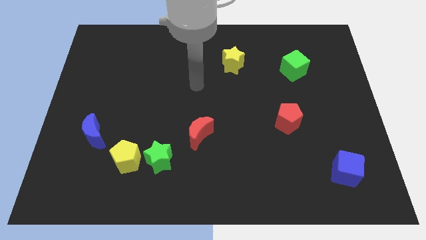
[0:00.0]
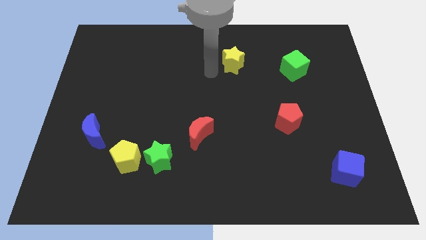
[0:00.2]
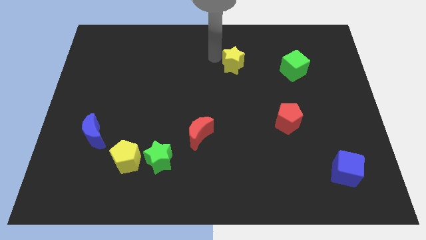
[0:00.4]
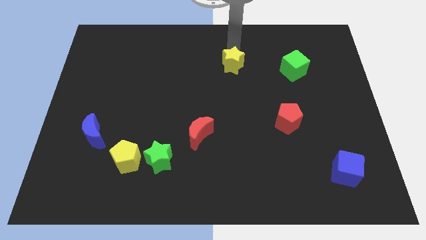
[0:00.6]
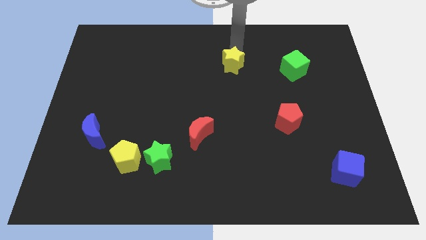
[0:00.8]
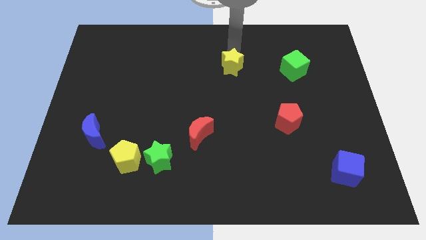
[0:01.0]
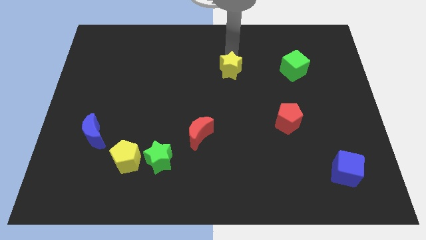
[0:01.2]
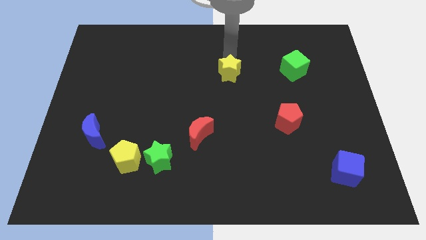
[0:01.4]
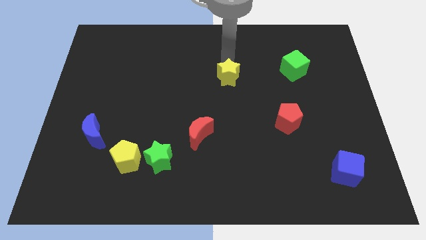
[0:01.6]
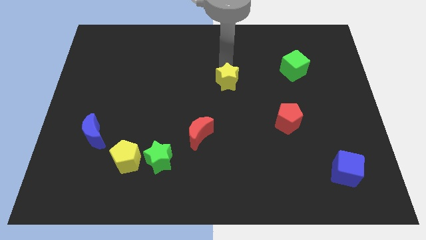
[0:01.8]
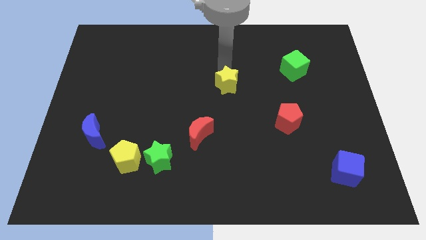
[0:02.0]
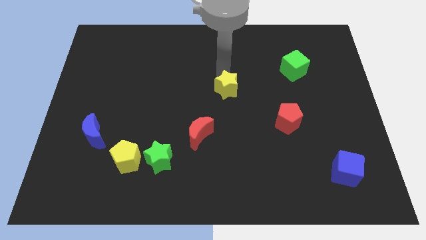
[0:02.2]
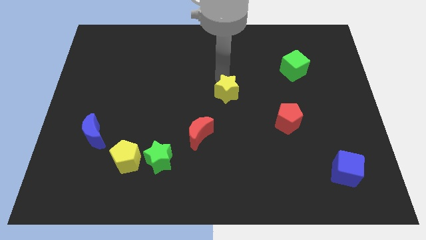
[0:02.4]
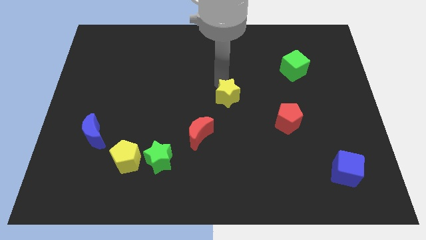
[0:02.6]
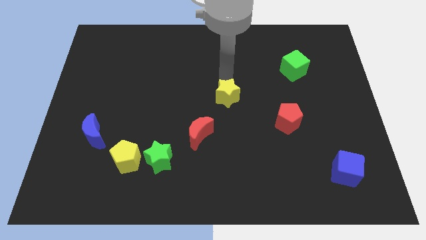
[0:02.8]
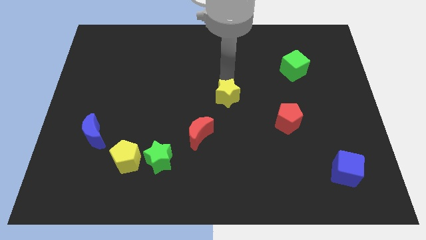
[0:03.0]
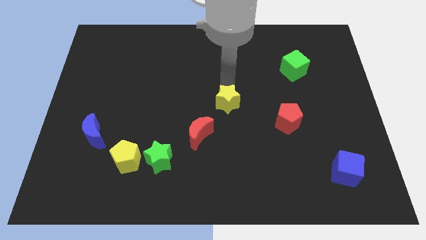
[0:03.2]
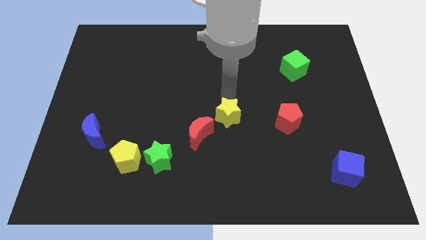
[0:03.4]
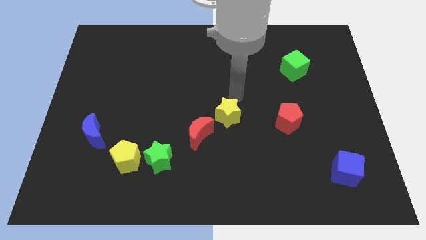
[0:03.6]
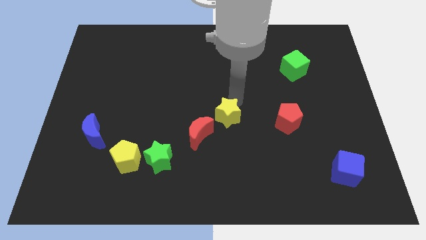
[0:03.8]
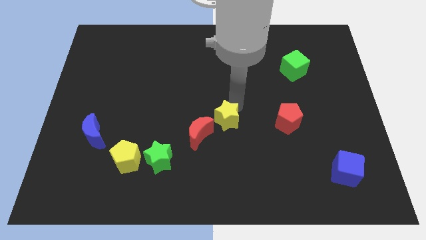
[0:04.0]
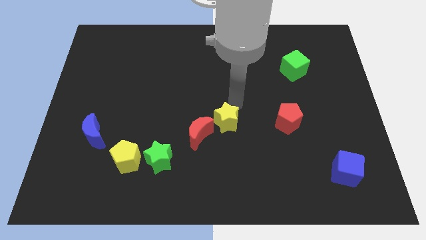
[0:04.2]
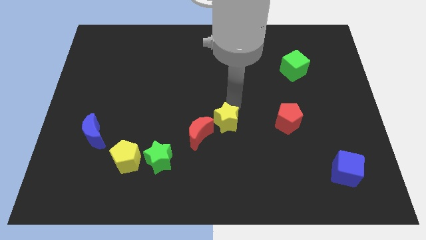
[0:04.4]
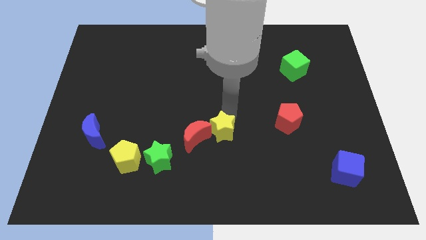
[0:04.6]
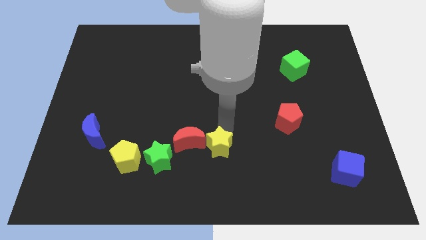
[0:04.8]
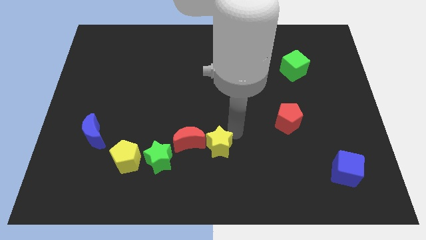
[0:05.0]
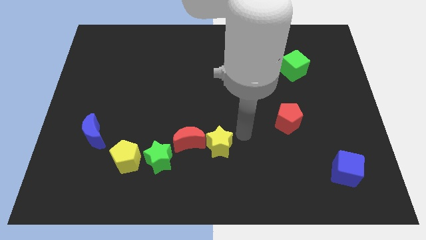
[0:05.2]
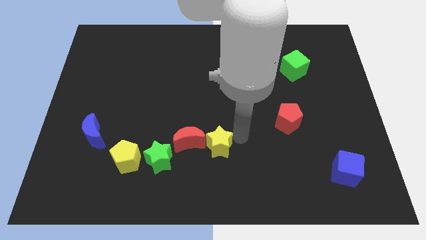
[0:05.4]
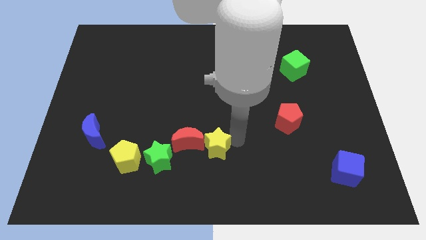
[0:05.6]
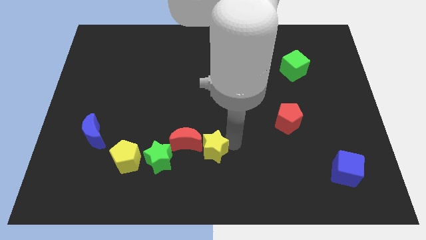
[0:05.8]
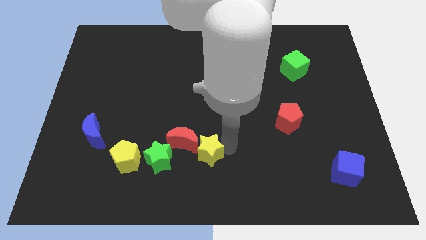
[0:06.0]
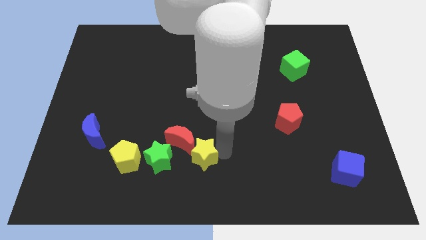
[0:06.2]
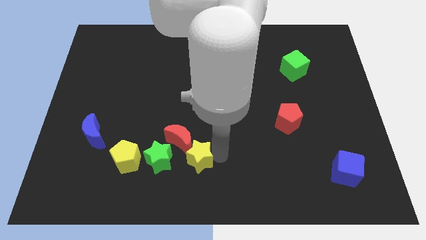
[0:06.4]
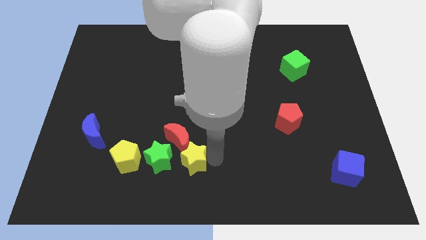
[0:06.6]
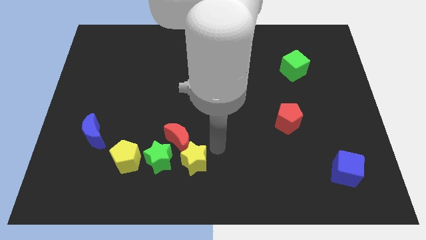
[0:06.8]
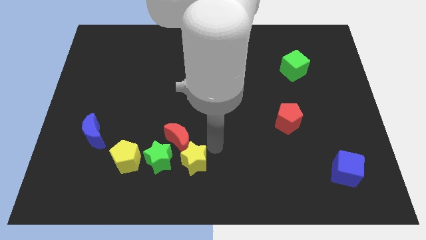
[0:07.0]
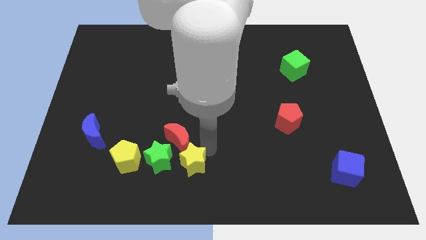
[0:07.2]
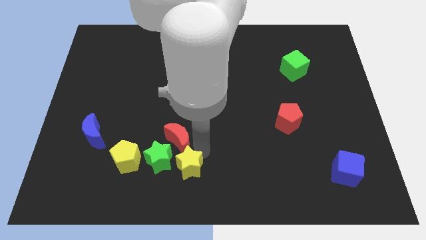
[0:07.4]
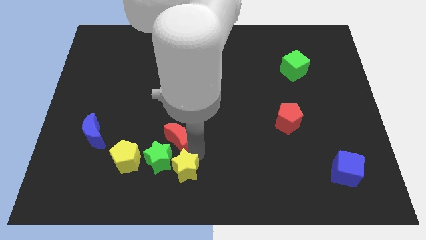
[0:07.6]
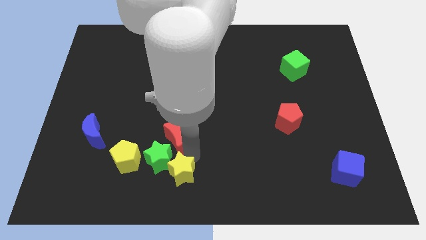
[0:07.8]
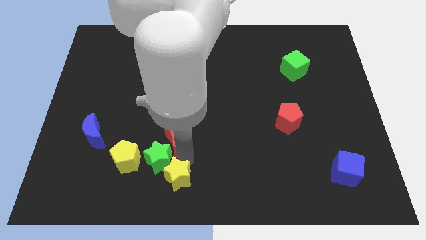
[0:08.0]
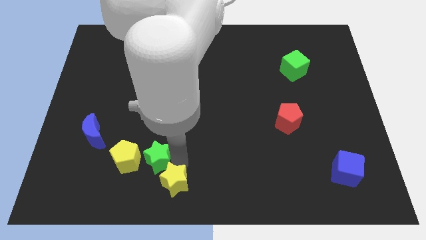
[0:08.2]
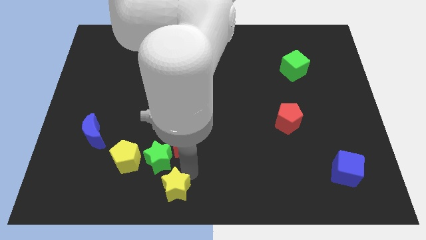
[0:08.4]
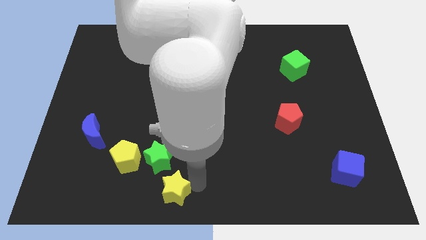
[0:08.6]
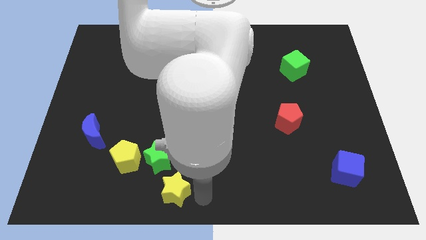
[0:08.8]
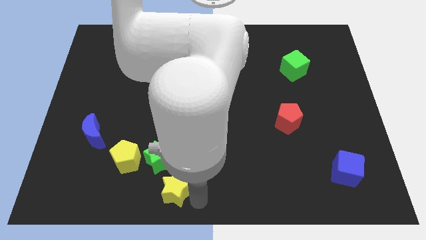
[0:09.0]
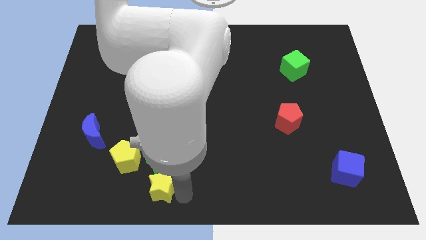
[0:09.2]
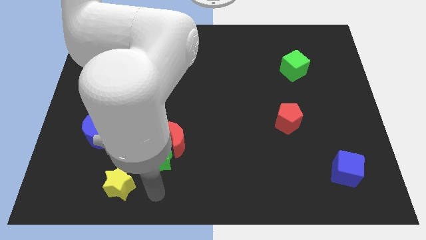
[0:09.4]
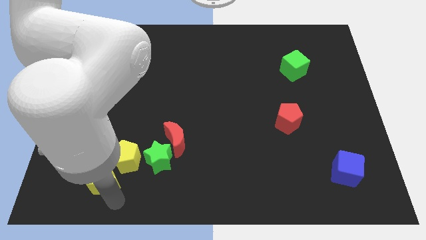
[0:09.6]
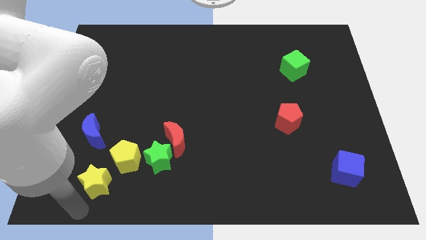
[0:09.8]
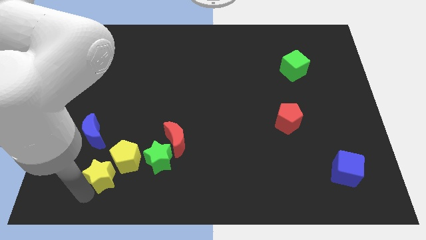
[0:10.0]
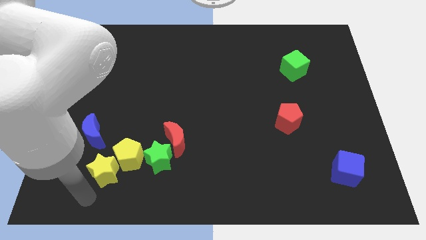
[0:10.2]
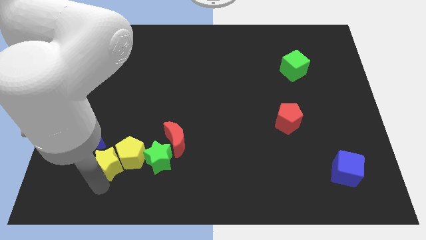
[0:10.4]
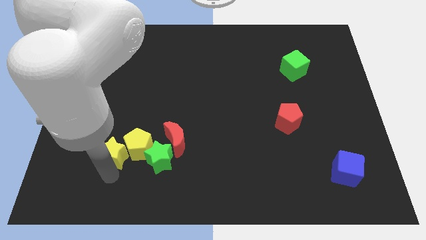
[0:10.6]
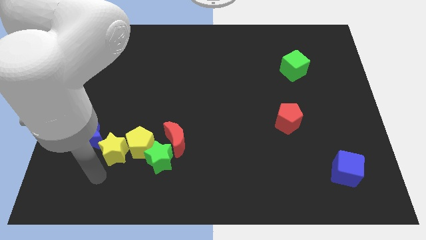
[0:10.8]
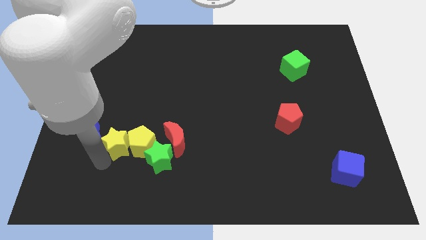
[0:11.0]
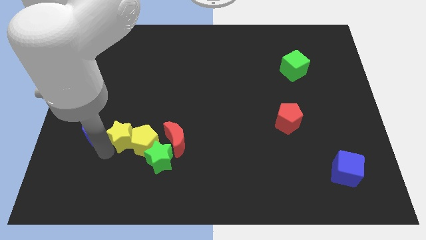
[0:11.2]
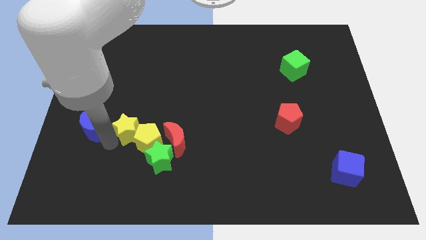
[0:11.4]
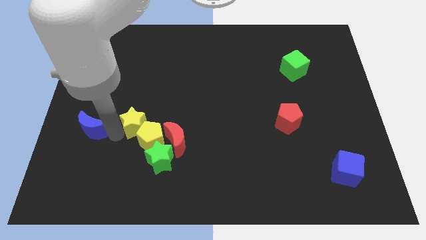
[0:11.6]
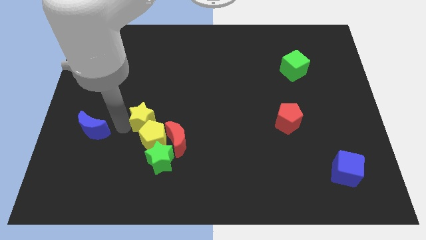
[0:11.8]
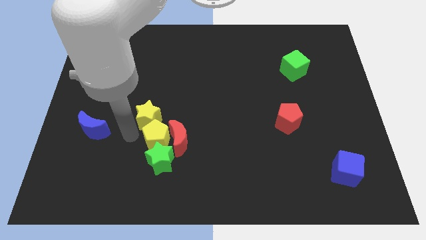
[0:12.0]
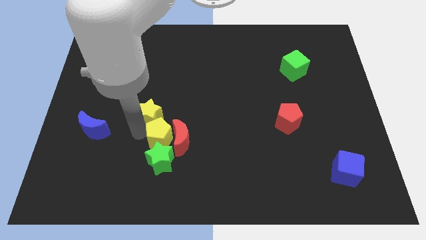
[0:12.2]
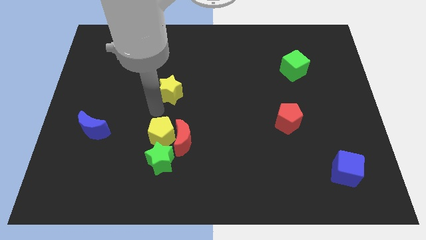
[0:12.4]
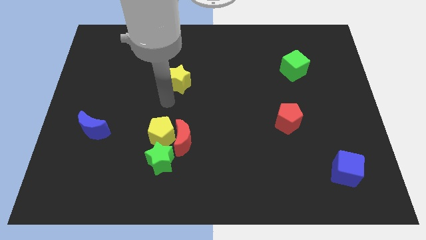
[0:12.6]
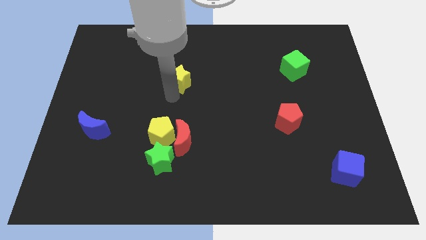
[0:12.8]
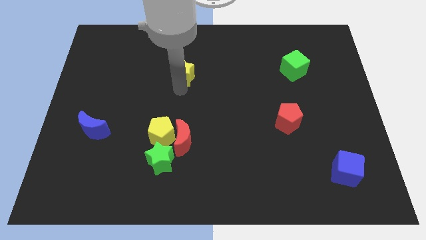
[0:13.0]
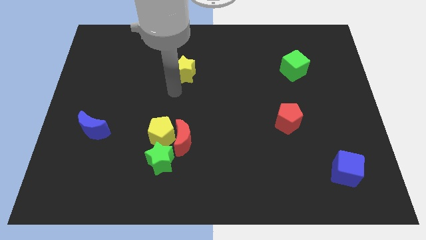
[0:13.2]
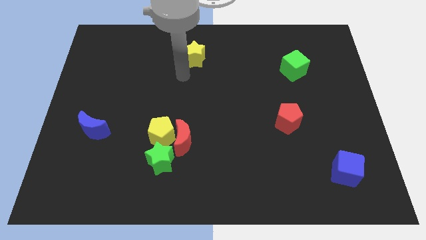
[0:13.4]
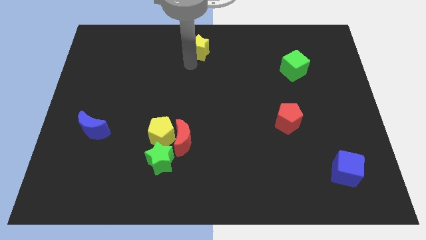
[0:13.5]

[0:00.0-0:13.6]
push the yellow star to the top side

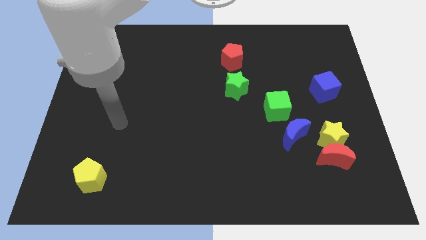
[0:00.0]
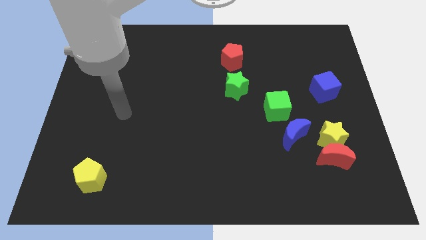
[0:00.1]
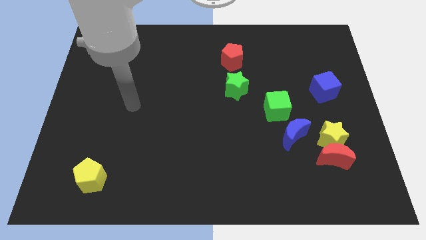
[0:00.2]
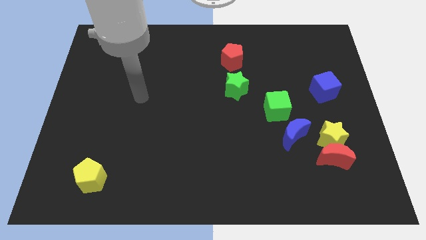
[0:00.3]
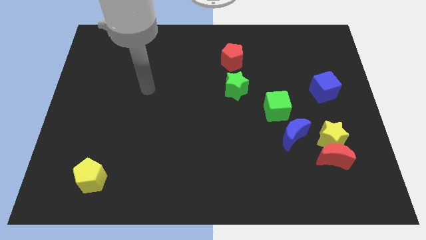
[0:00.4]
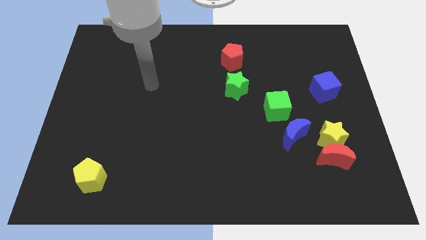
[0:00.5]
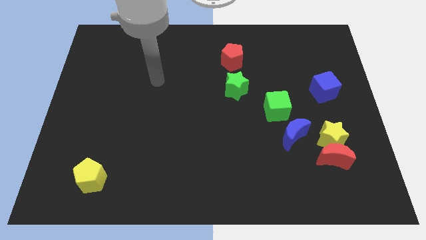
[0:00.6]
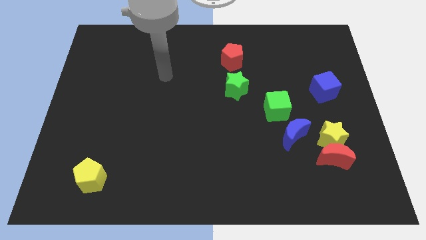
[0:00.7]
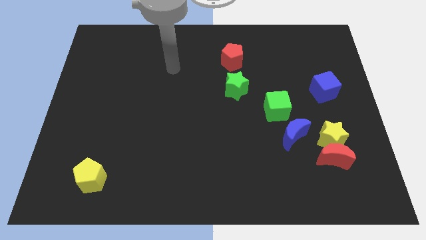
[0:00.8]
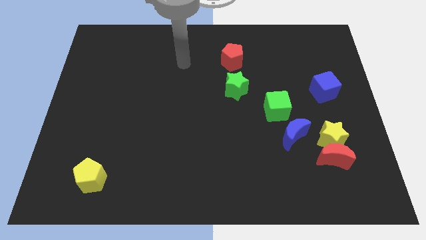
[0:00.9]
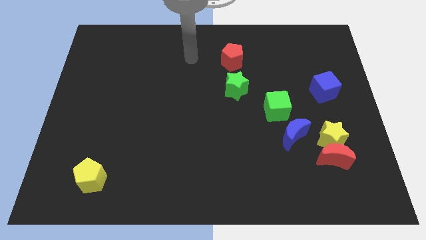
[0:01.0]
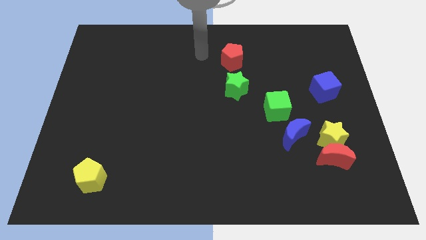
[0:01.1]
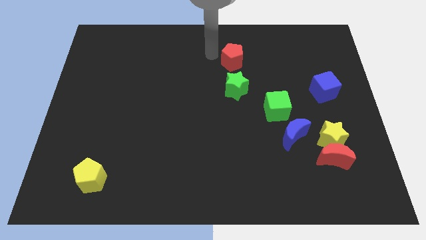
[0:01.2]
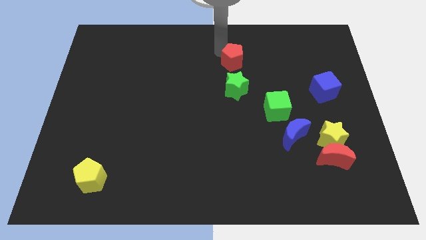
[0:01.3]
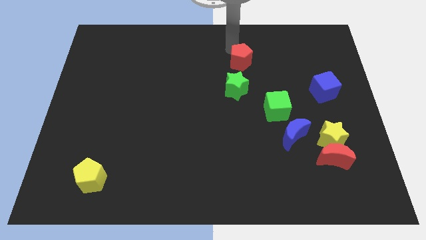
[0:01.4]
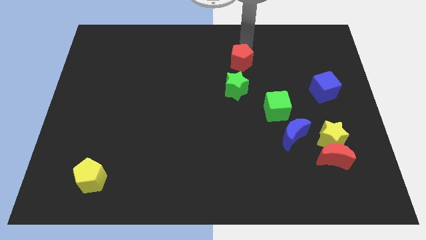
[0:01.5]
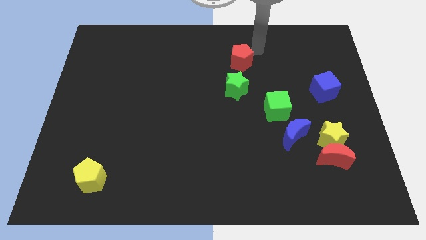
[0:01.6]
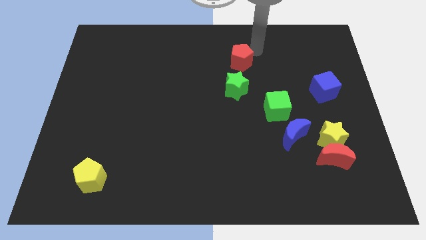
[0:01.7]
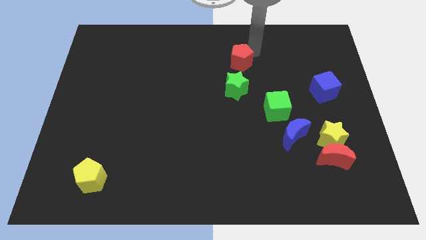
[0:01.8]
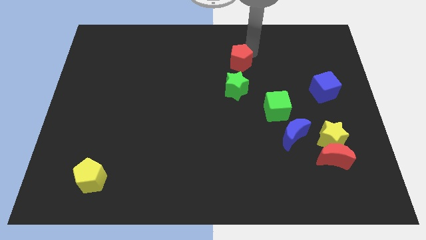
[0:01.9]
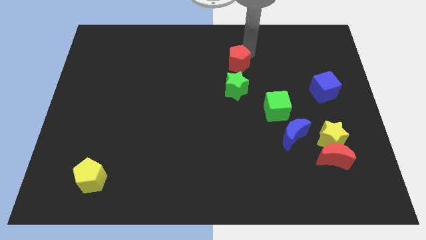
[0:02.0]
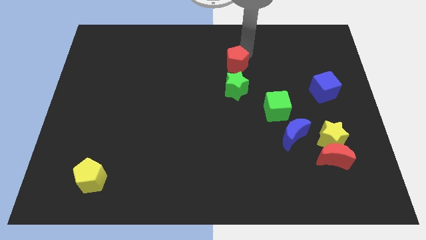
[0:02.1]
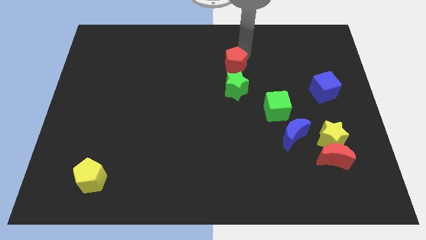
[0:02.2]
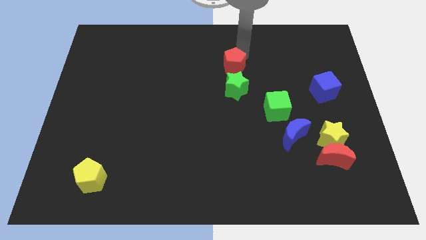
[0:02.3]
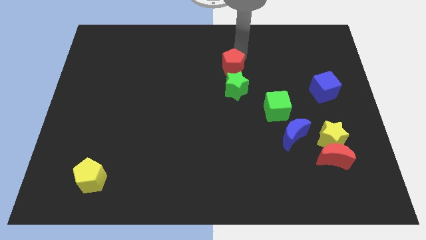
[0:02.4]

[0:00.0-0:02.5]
put the red pentagon to the middle of the board
